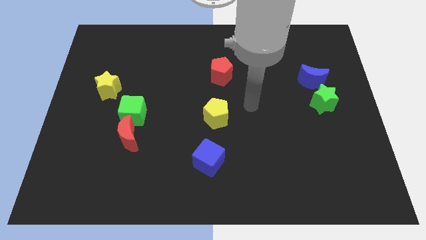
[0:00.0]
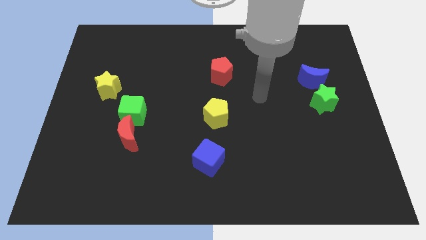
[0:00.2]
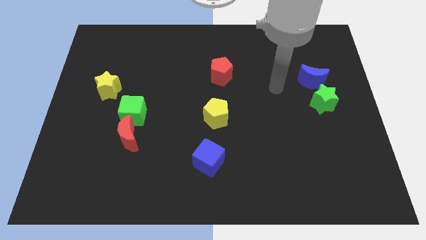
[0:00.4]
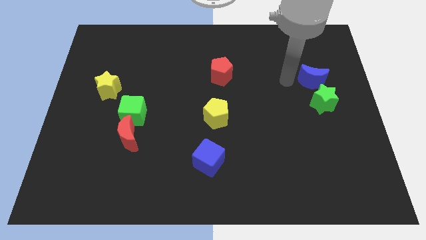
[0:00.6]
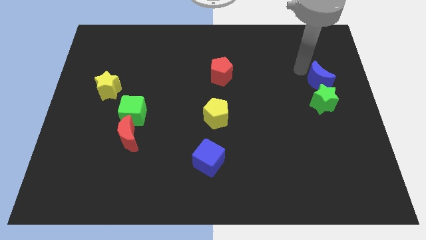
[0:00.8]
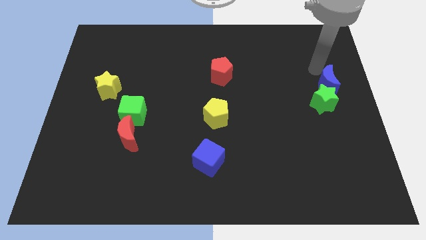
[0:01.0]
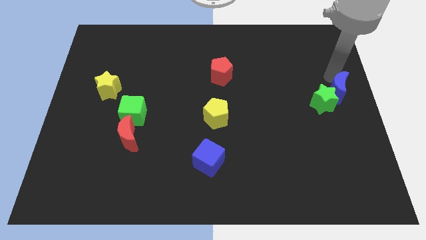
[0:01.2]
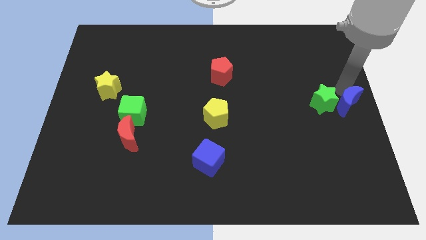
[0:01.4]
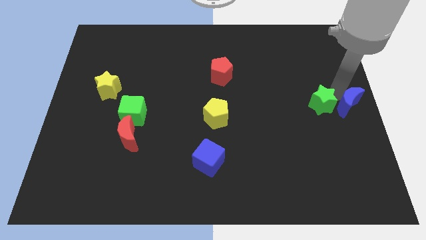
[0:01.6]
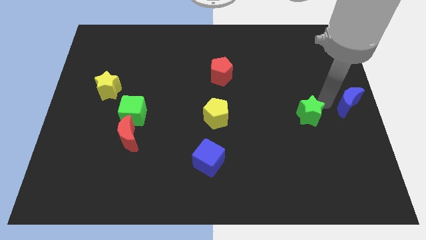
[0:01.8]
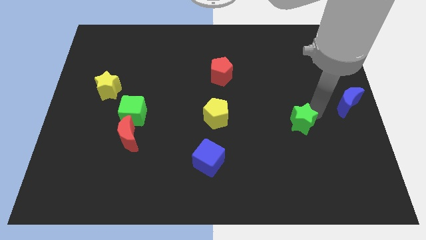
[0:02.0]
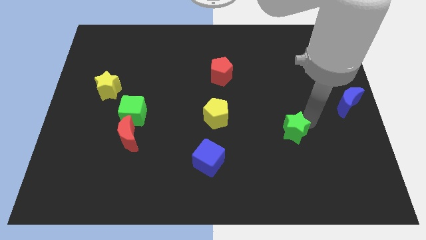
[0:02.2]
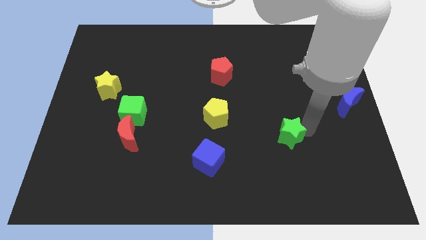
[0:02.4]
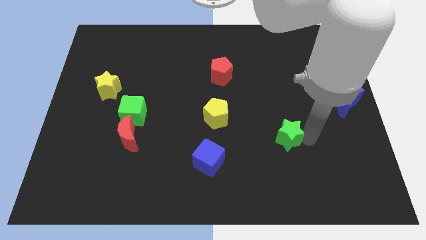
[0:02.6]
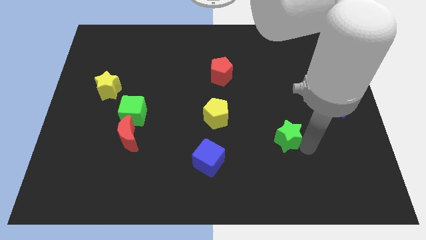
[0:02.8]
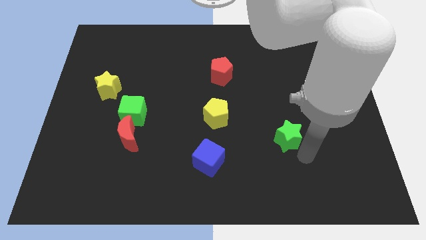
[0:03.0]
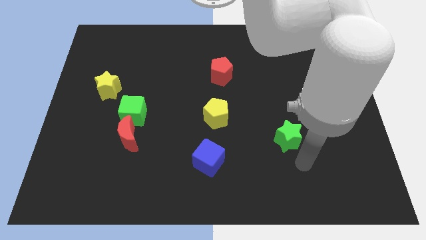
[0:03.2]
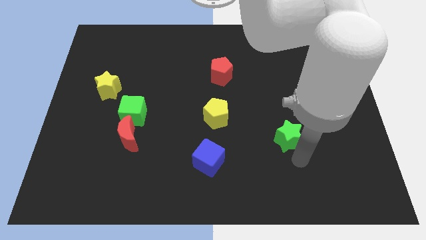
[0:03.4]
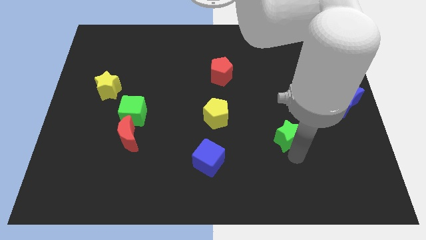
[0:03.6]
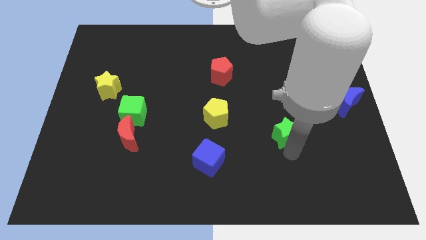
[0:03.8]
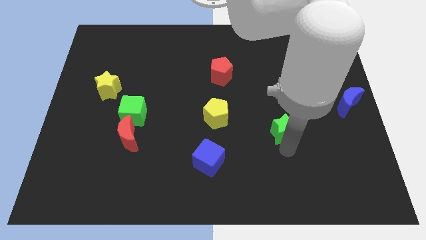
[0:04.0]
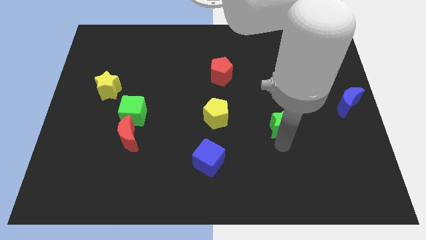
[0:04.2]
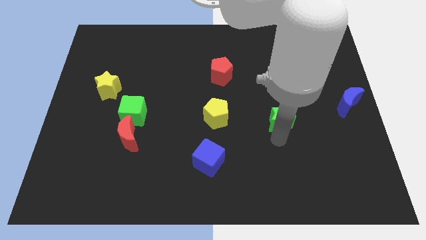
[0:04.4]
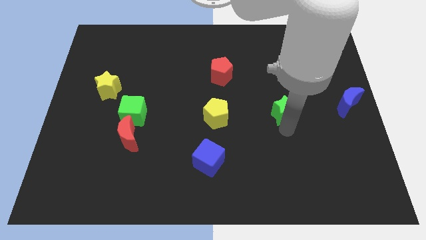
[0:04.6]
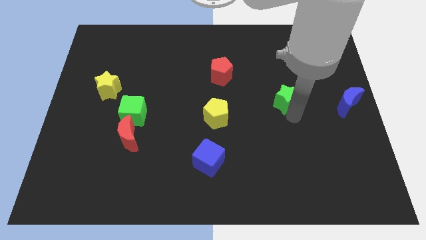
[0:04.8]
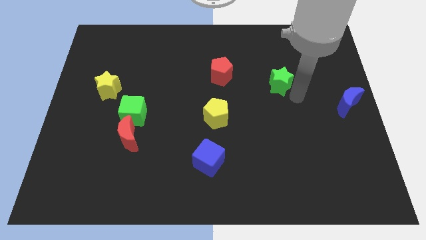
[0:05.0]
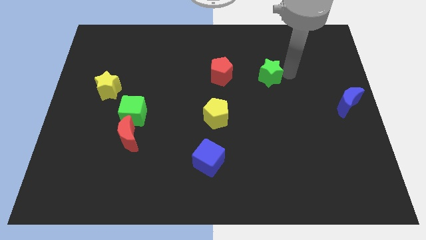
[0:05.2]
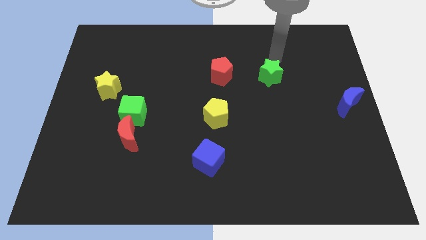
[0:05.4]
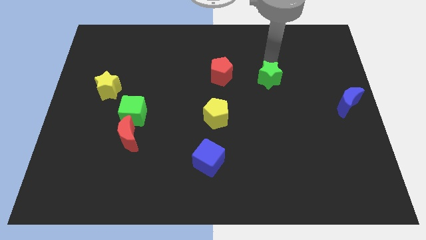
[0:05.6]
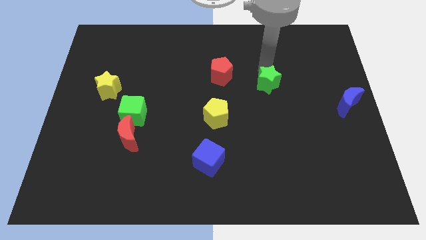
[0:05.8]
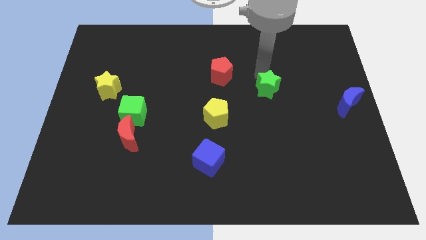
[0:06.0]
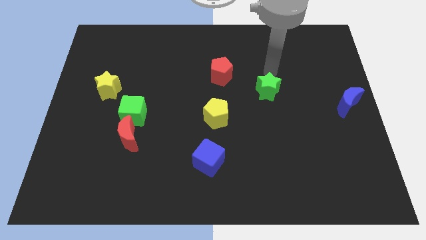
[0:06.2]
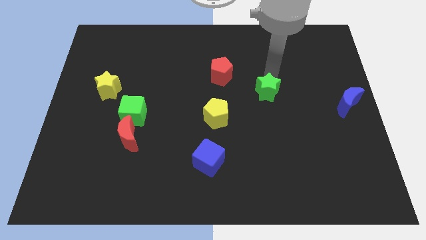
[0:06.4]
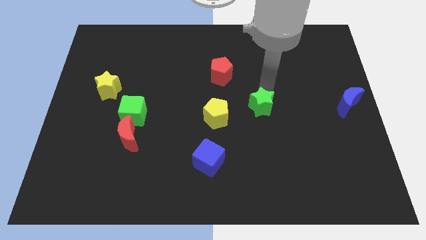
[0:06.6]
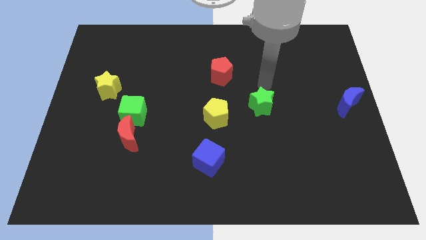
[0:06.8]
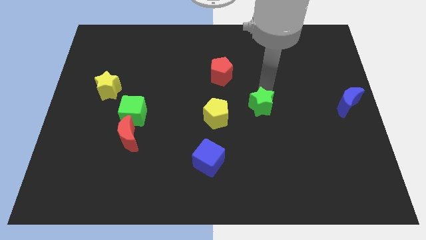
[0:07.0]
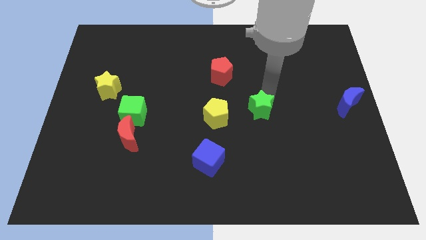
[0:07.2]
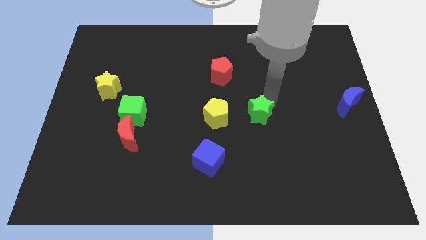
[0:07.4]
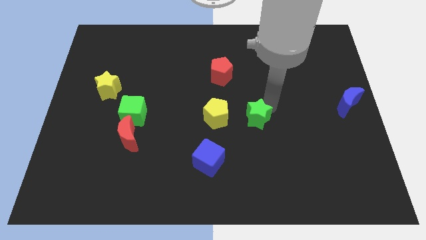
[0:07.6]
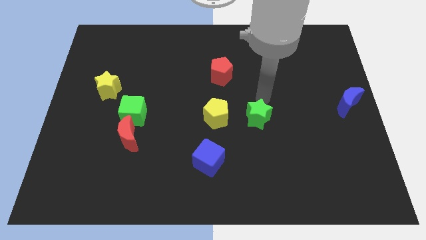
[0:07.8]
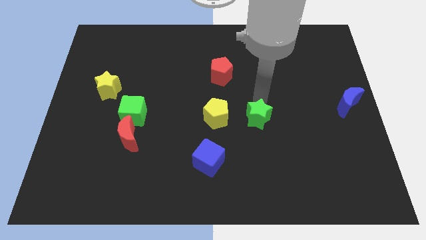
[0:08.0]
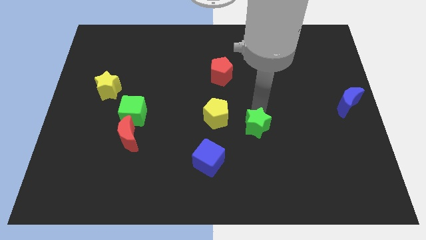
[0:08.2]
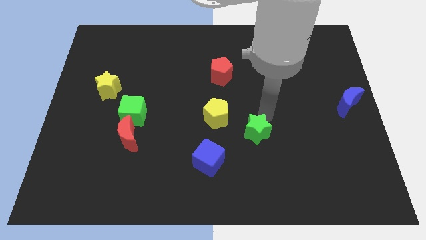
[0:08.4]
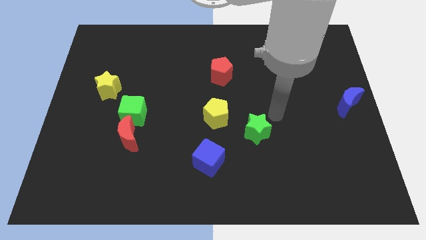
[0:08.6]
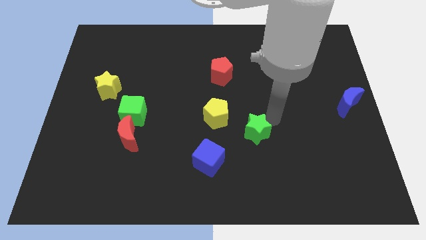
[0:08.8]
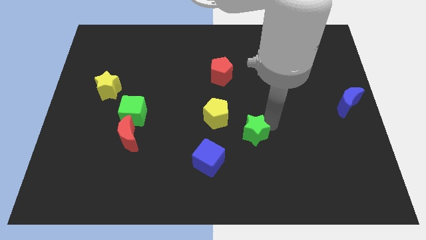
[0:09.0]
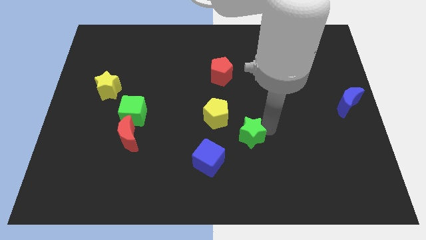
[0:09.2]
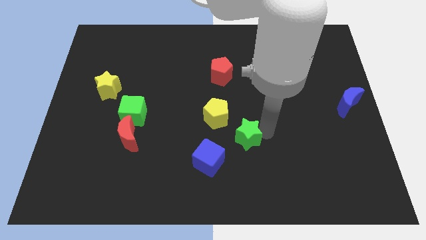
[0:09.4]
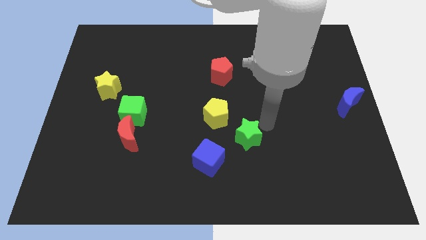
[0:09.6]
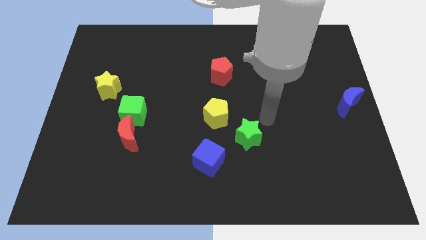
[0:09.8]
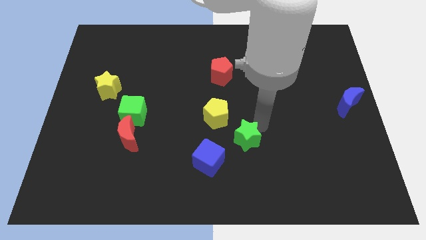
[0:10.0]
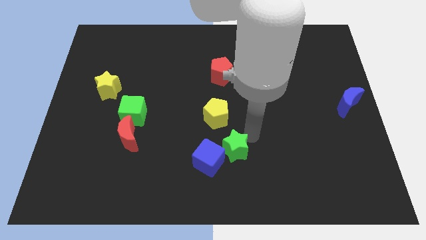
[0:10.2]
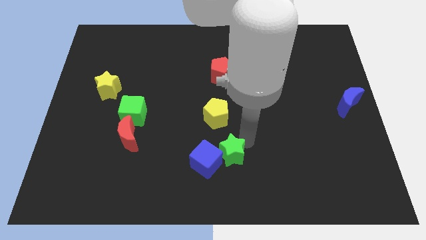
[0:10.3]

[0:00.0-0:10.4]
push the green star next to the blue cube

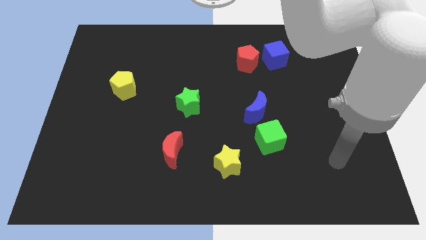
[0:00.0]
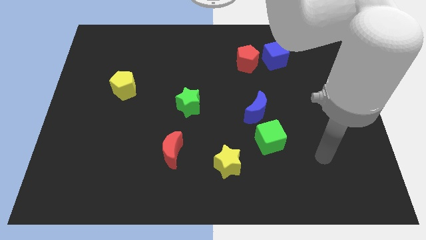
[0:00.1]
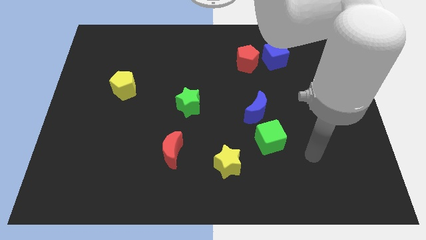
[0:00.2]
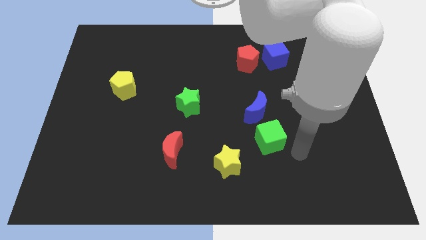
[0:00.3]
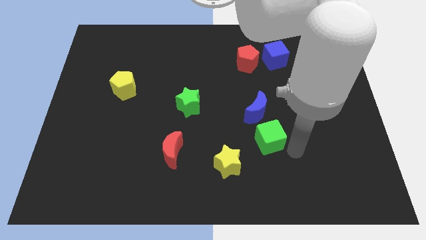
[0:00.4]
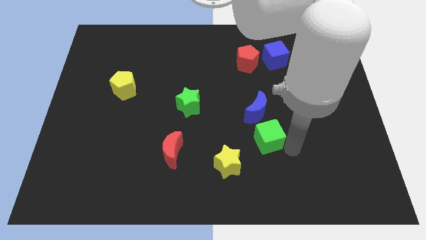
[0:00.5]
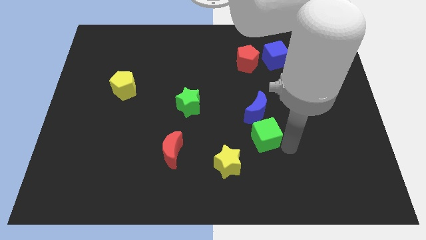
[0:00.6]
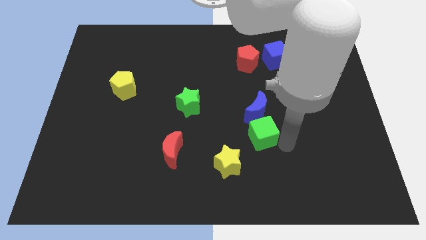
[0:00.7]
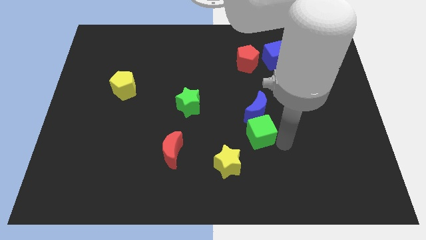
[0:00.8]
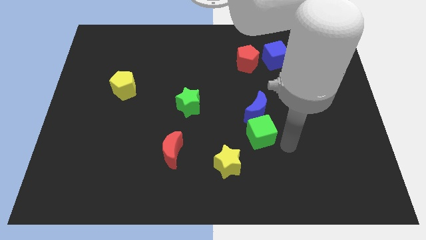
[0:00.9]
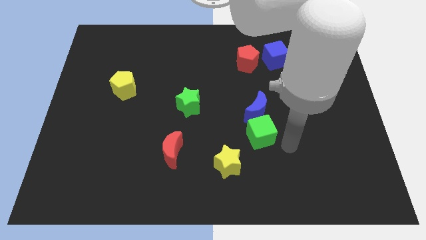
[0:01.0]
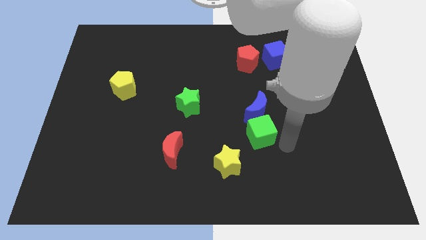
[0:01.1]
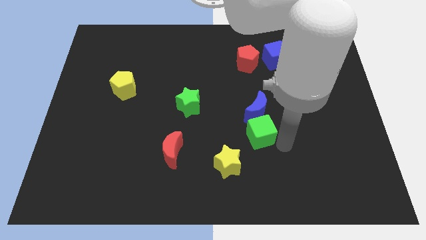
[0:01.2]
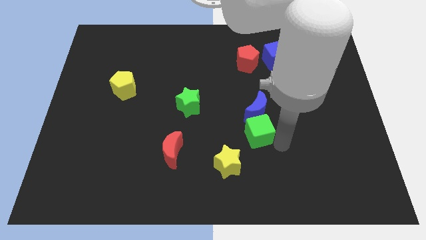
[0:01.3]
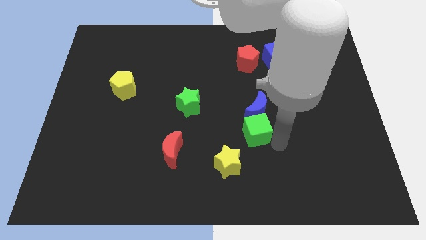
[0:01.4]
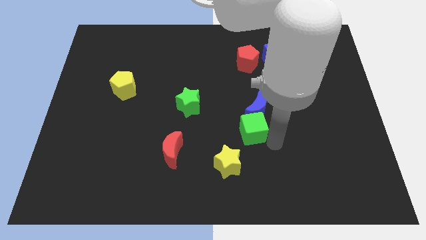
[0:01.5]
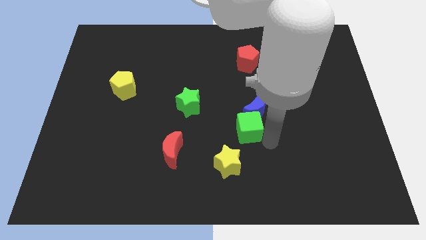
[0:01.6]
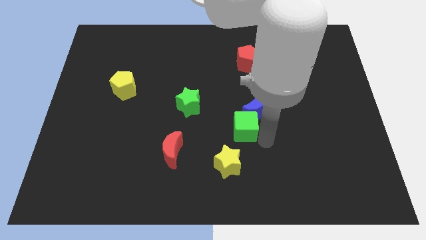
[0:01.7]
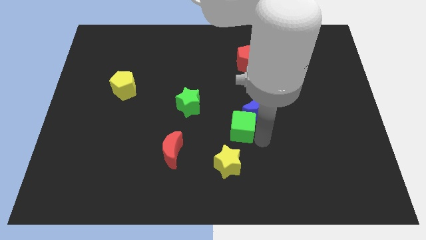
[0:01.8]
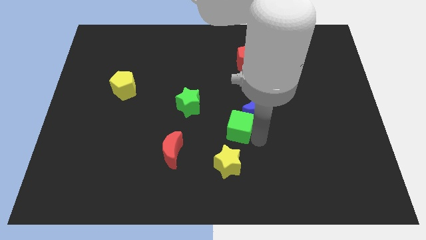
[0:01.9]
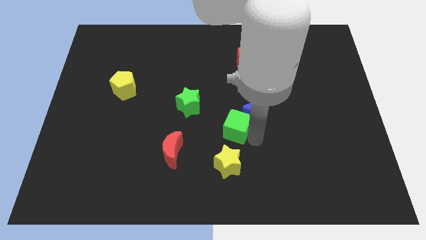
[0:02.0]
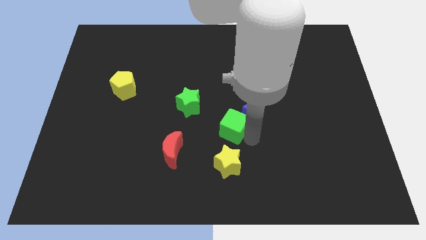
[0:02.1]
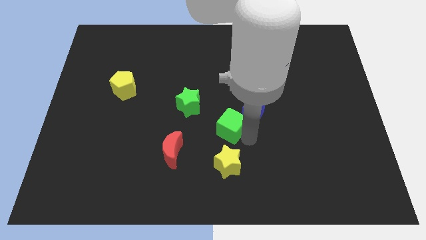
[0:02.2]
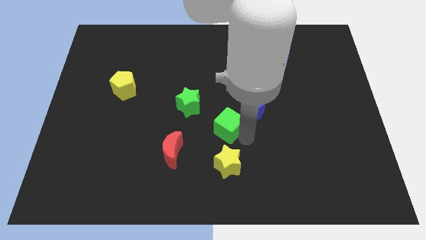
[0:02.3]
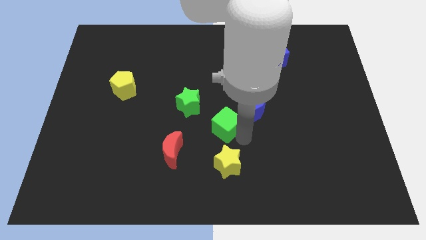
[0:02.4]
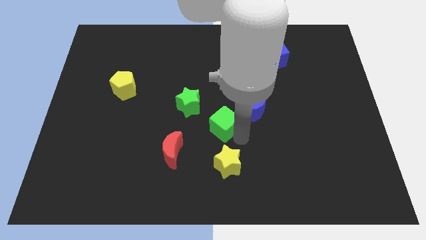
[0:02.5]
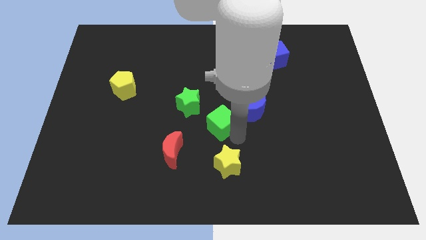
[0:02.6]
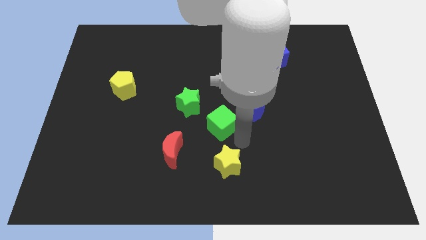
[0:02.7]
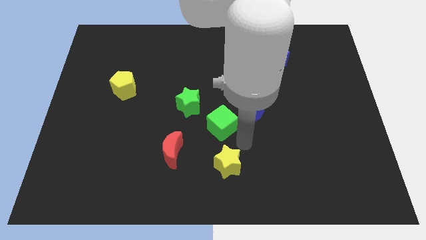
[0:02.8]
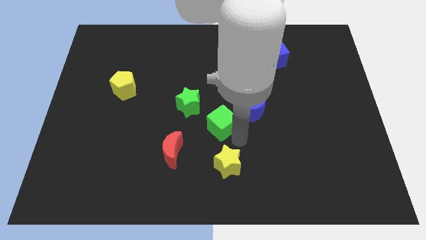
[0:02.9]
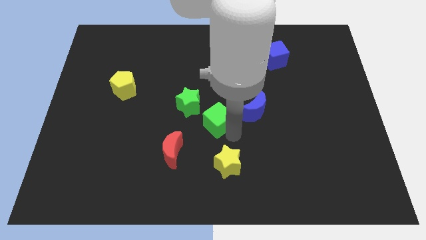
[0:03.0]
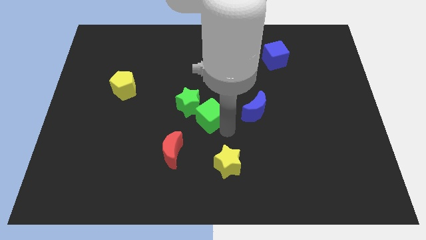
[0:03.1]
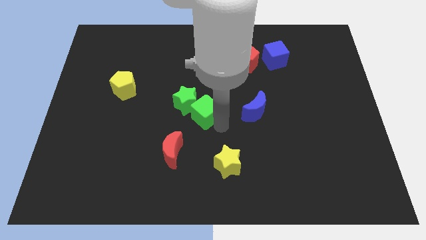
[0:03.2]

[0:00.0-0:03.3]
push the green cube next to the green star
